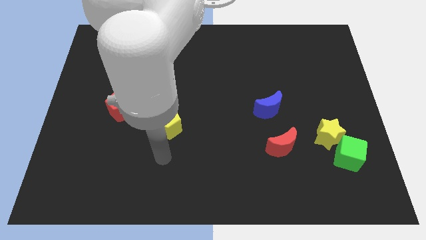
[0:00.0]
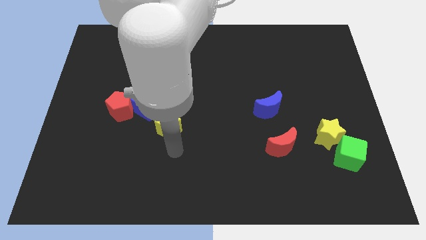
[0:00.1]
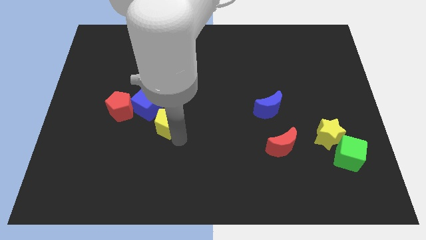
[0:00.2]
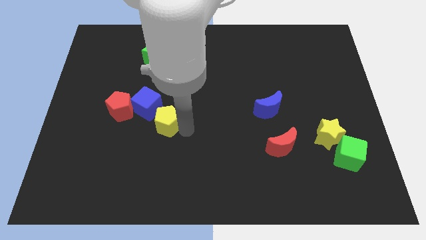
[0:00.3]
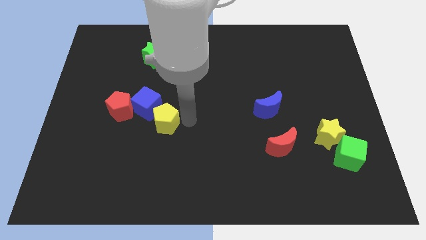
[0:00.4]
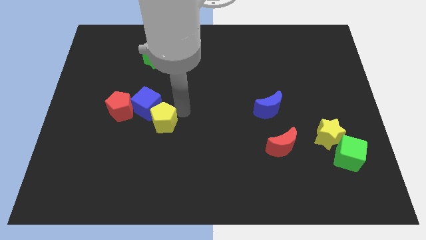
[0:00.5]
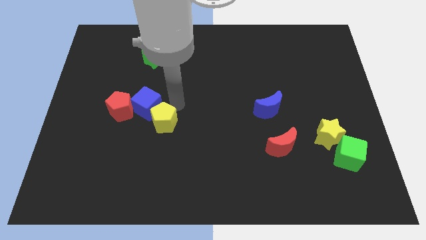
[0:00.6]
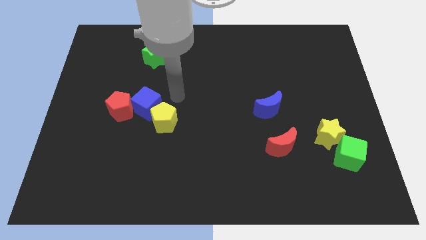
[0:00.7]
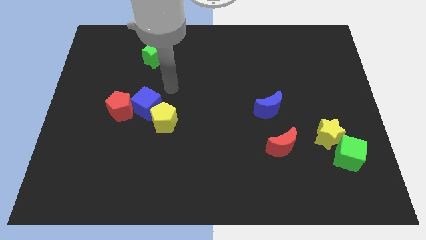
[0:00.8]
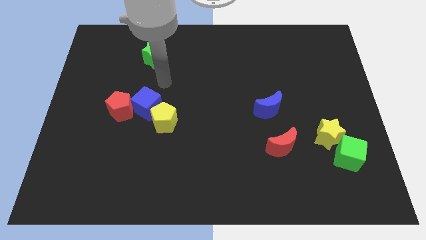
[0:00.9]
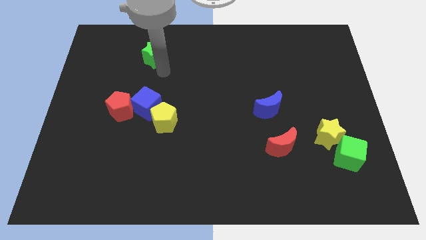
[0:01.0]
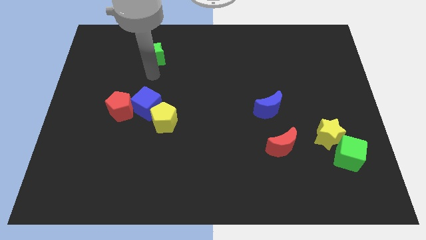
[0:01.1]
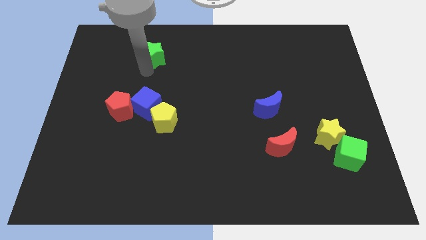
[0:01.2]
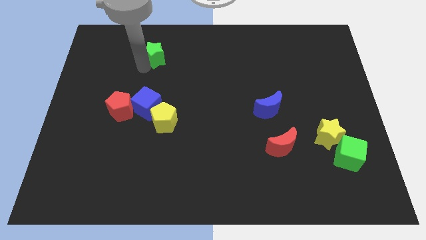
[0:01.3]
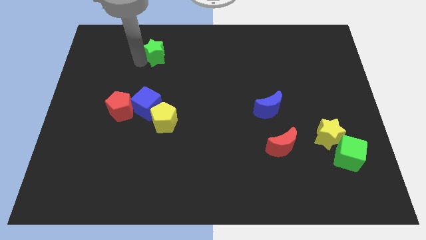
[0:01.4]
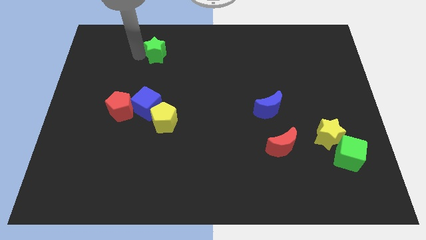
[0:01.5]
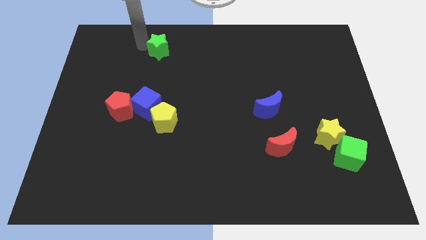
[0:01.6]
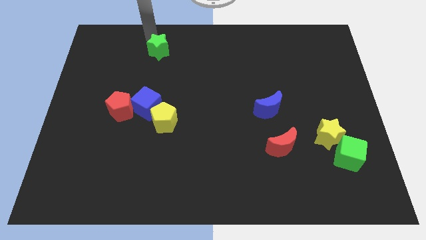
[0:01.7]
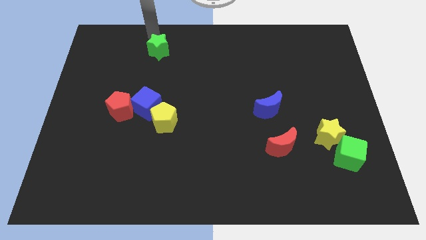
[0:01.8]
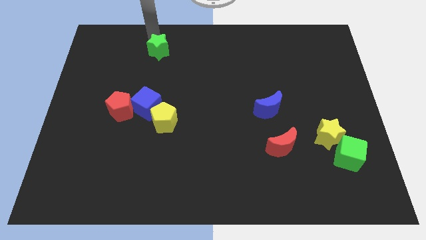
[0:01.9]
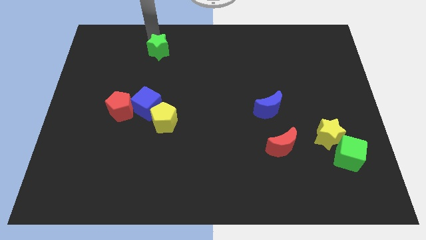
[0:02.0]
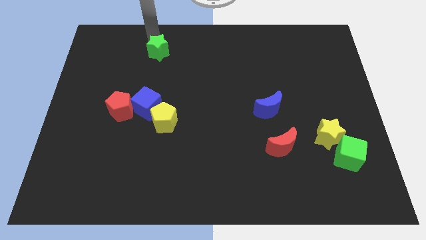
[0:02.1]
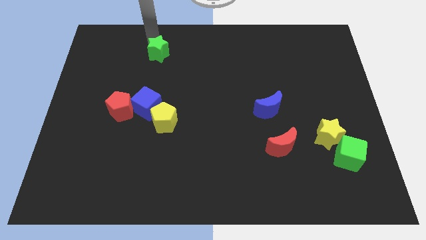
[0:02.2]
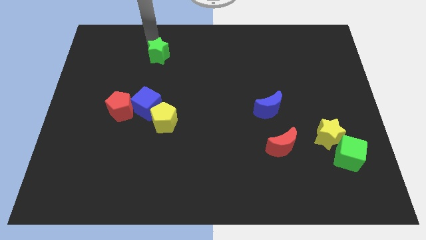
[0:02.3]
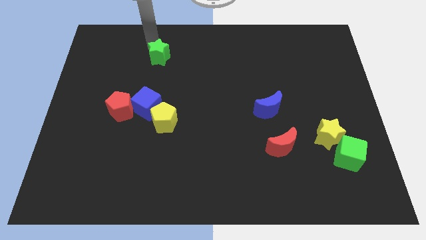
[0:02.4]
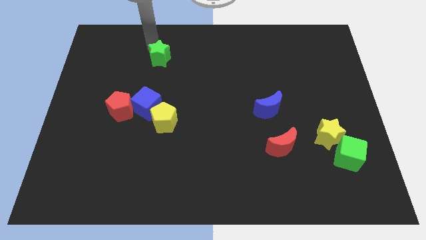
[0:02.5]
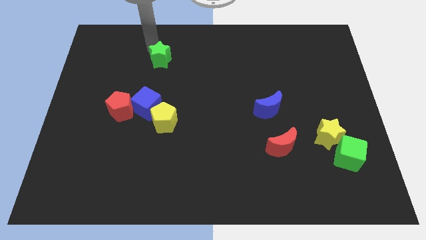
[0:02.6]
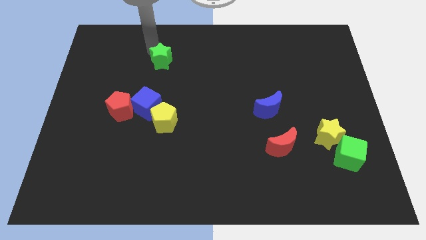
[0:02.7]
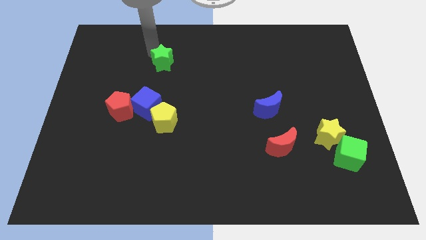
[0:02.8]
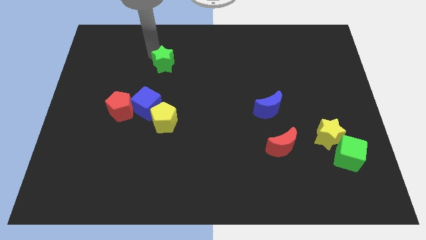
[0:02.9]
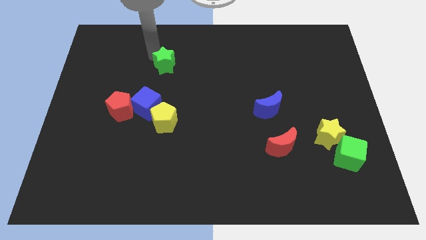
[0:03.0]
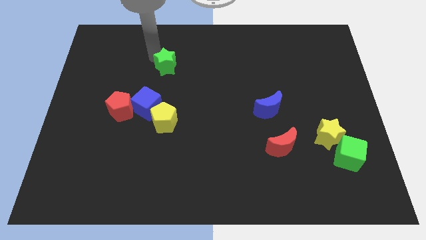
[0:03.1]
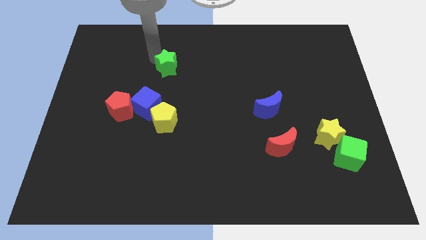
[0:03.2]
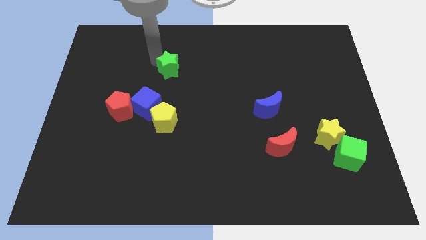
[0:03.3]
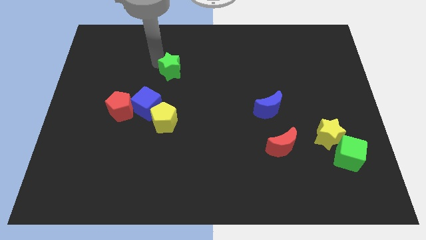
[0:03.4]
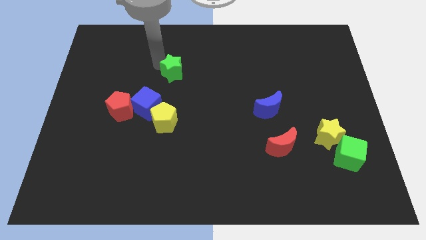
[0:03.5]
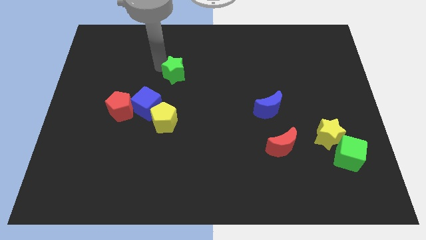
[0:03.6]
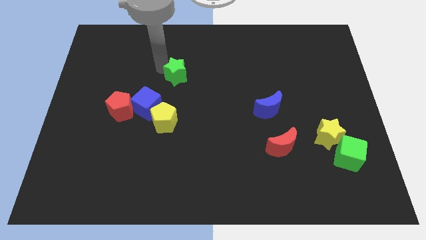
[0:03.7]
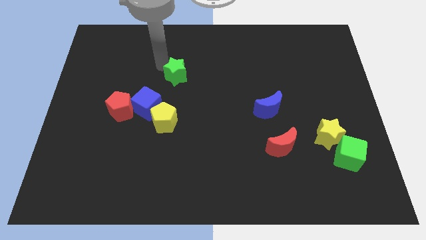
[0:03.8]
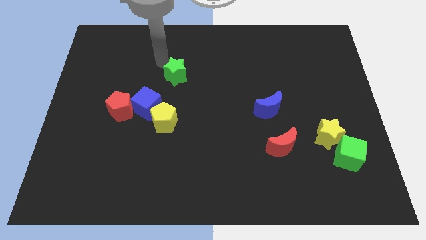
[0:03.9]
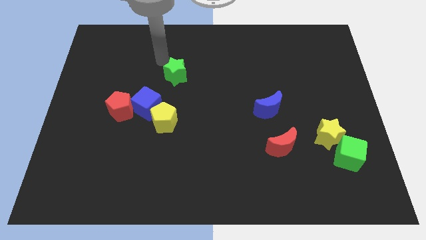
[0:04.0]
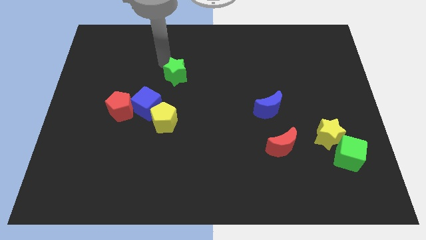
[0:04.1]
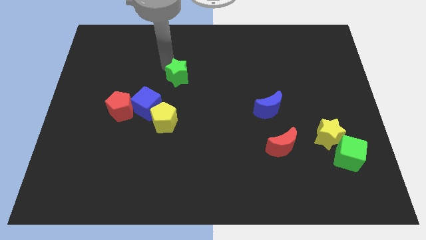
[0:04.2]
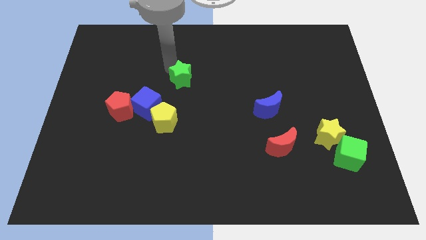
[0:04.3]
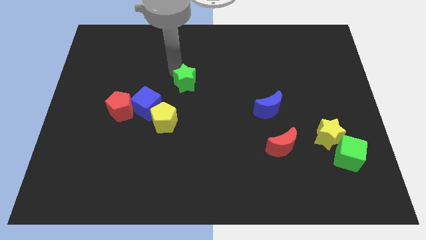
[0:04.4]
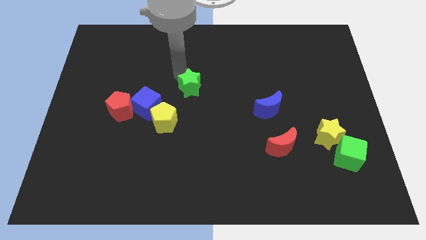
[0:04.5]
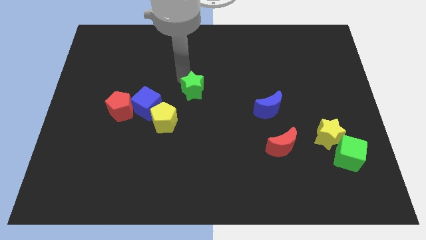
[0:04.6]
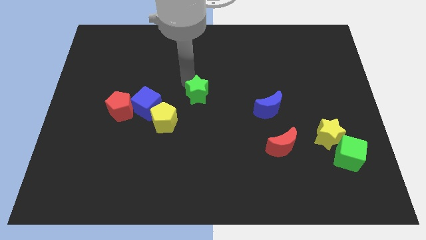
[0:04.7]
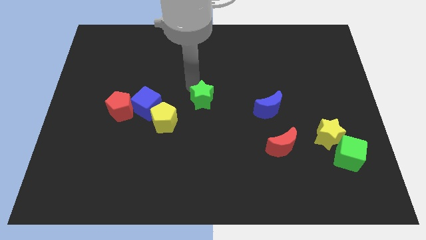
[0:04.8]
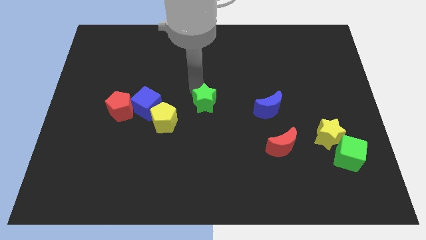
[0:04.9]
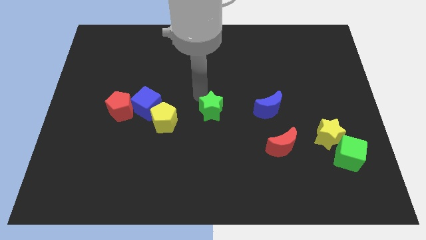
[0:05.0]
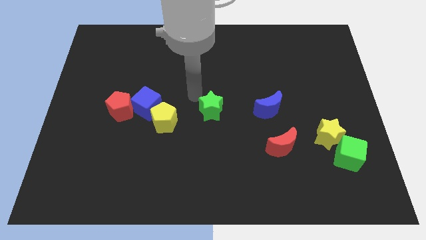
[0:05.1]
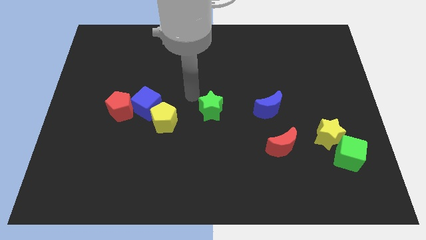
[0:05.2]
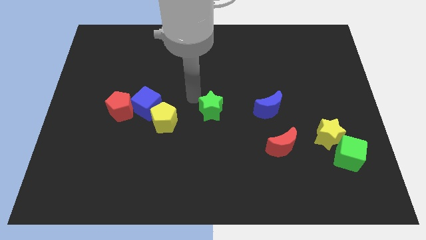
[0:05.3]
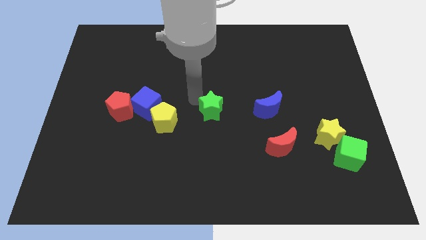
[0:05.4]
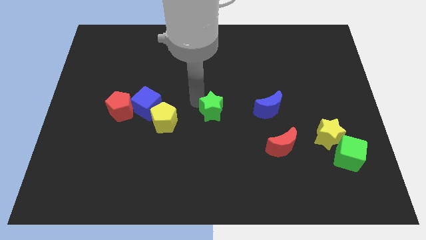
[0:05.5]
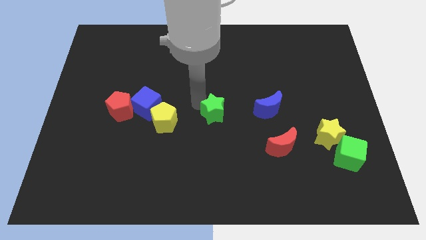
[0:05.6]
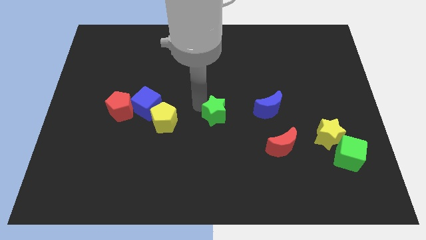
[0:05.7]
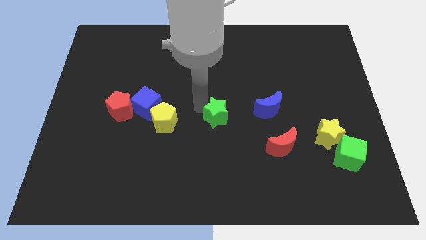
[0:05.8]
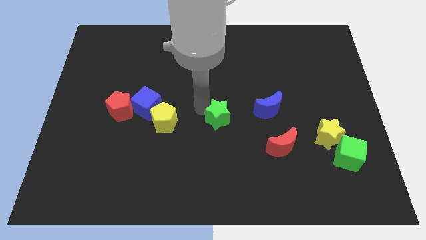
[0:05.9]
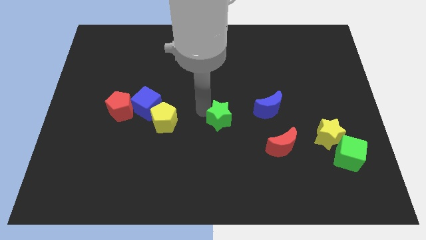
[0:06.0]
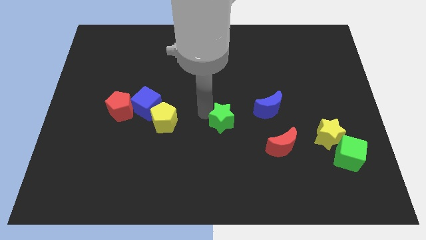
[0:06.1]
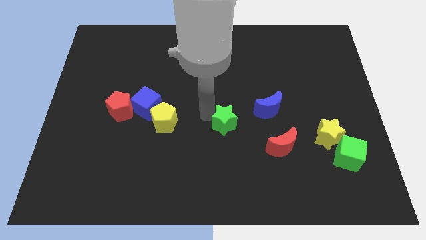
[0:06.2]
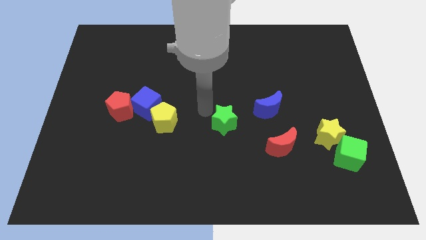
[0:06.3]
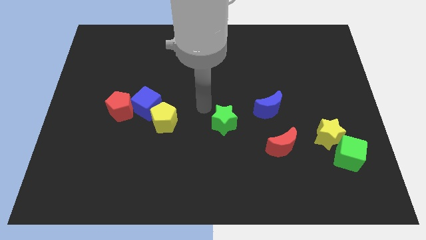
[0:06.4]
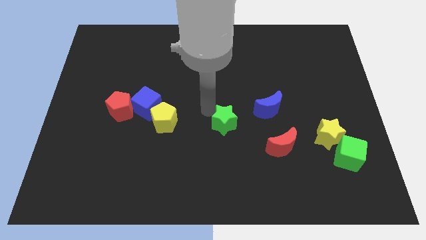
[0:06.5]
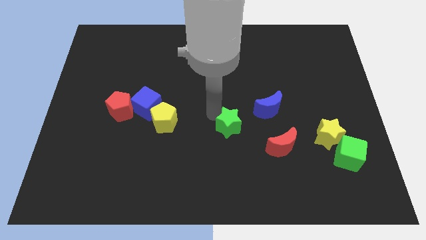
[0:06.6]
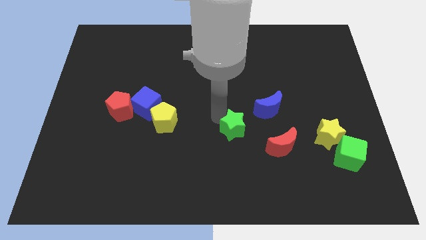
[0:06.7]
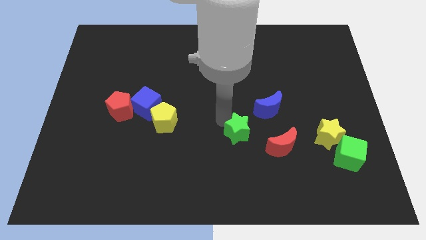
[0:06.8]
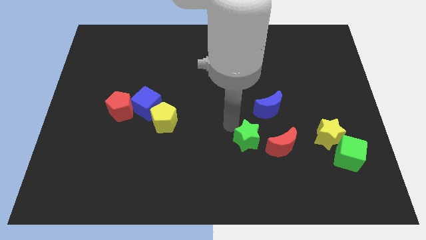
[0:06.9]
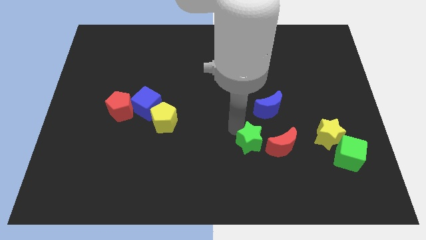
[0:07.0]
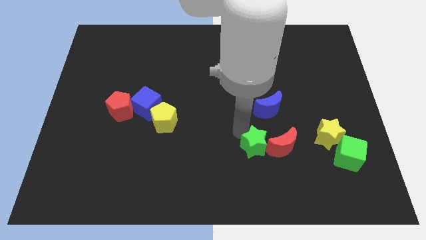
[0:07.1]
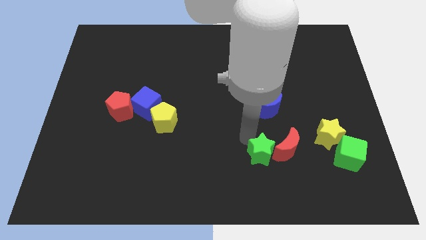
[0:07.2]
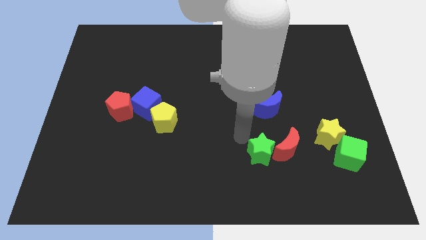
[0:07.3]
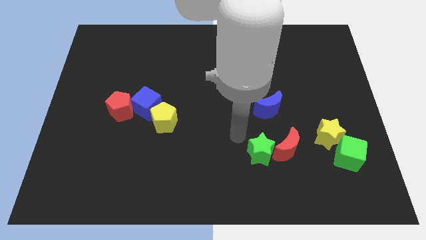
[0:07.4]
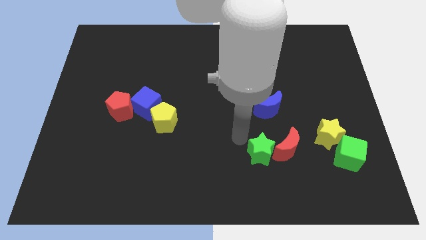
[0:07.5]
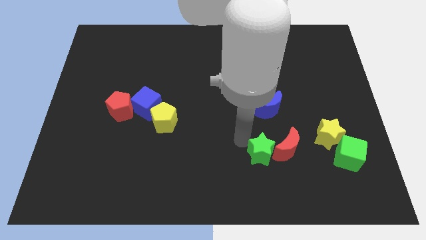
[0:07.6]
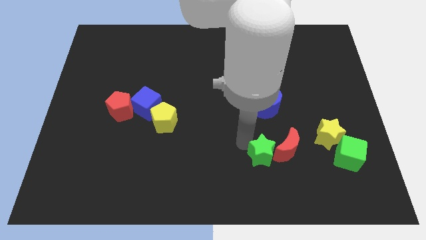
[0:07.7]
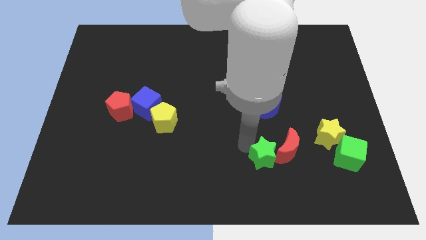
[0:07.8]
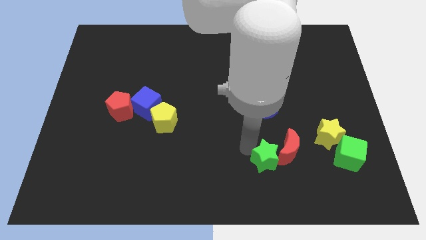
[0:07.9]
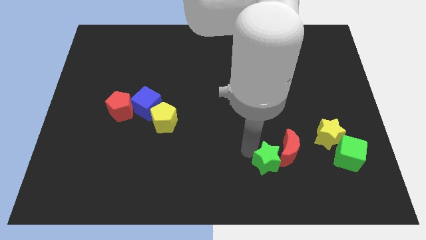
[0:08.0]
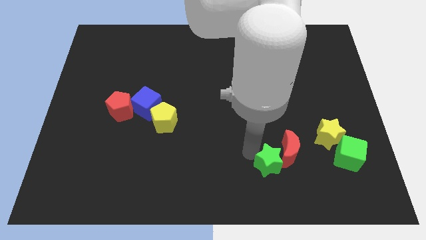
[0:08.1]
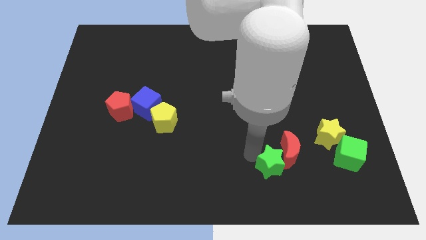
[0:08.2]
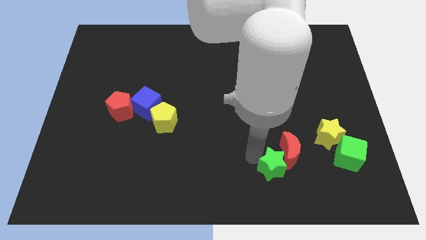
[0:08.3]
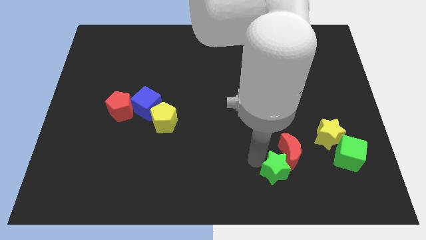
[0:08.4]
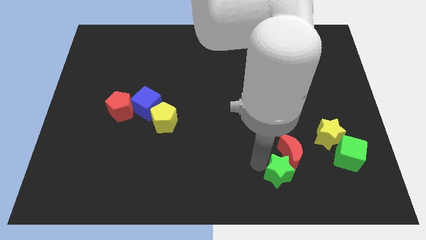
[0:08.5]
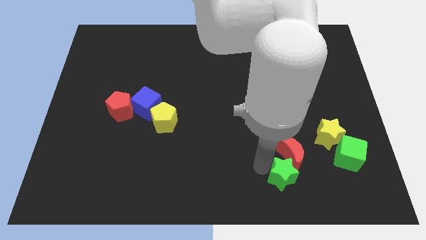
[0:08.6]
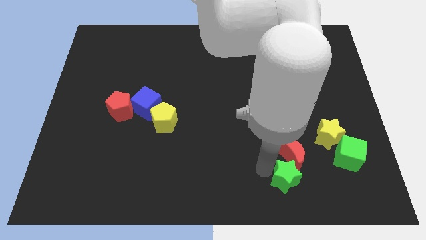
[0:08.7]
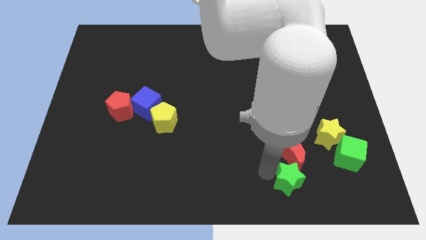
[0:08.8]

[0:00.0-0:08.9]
slide the green star to the bottom right side of the red moon
